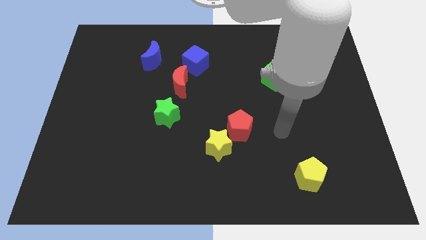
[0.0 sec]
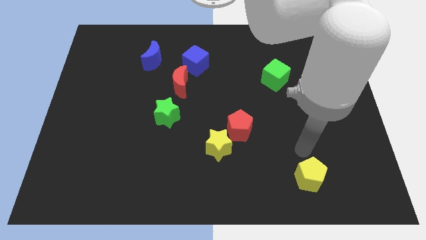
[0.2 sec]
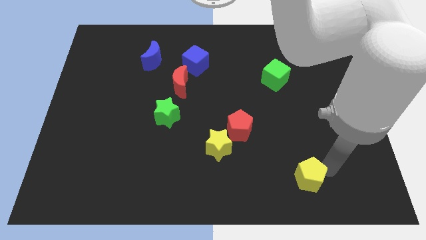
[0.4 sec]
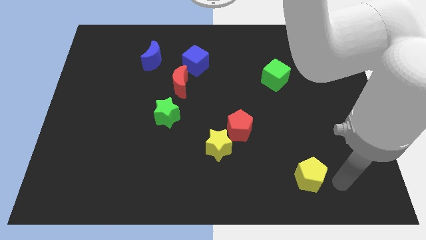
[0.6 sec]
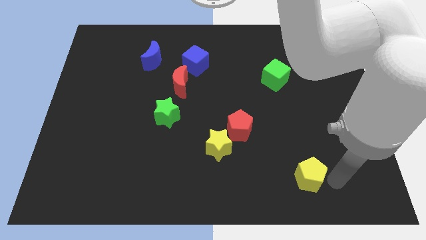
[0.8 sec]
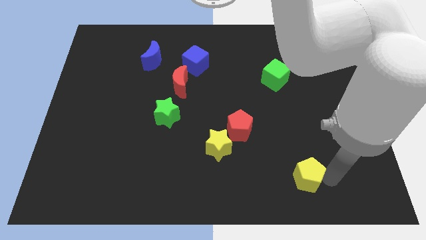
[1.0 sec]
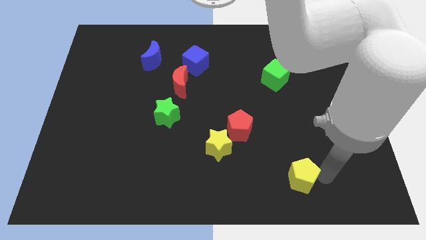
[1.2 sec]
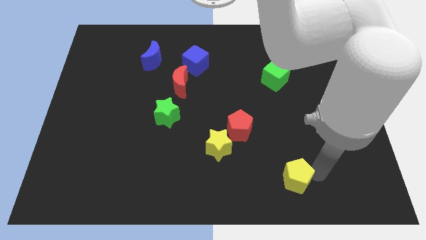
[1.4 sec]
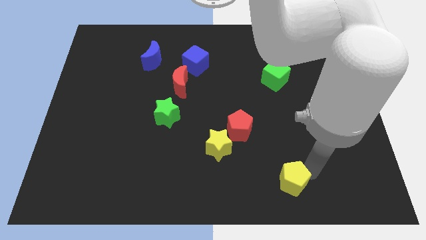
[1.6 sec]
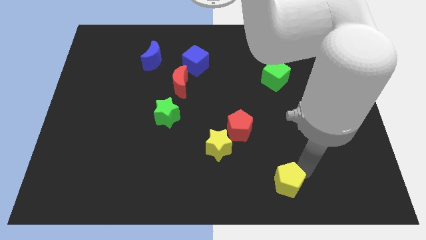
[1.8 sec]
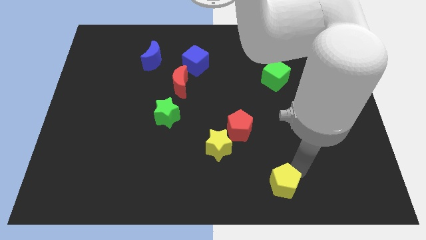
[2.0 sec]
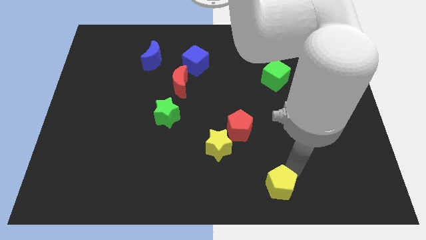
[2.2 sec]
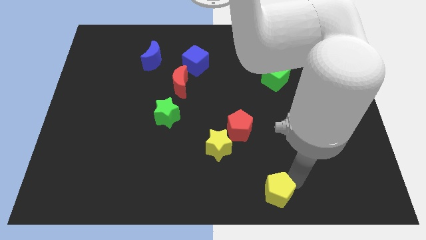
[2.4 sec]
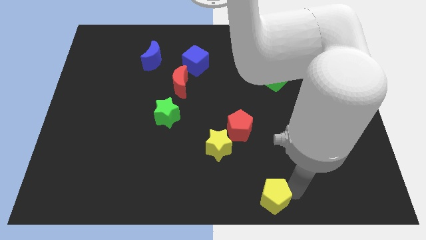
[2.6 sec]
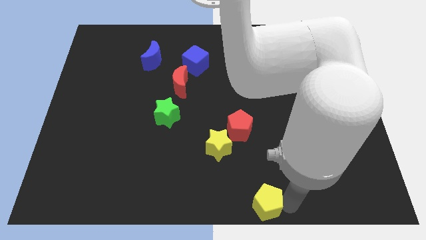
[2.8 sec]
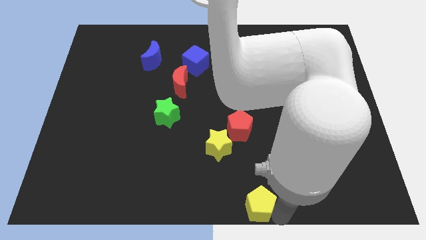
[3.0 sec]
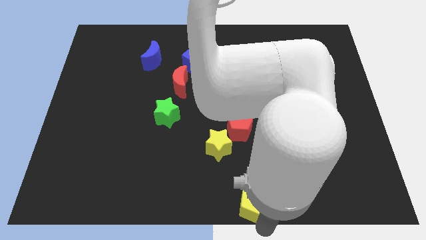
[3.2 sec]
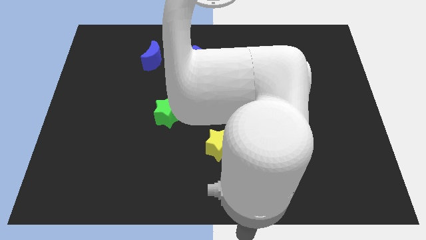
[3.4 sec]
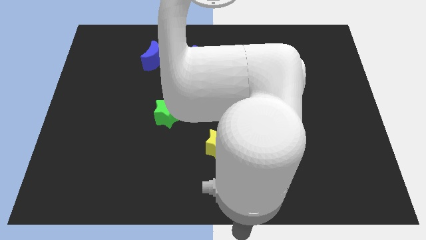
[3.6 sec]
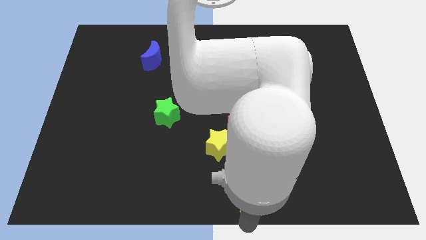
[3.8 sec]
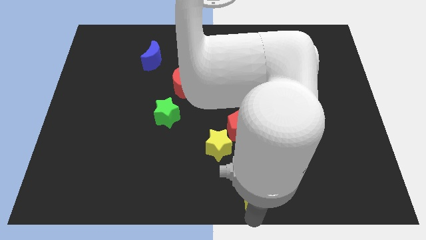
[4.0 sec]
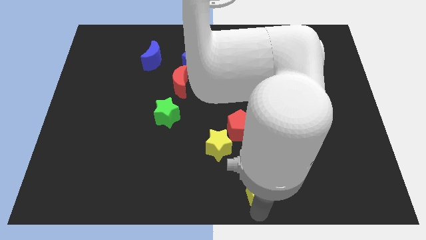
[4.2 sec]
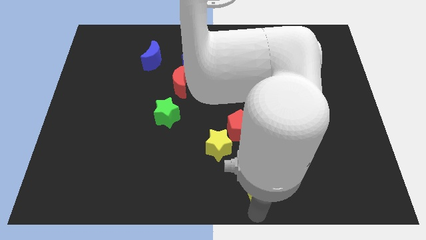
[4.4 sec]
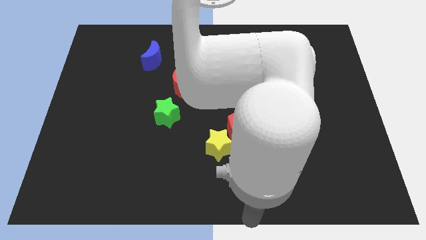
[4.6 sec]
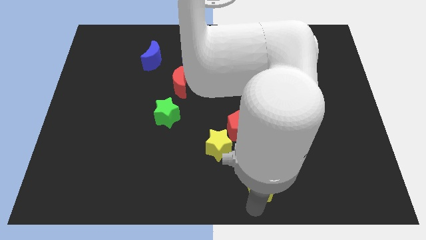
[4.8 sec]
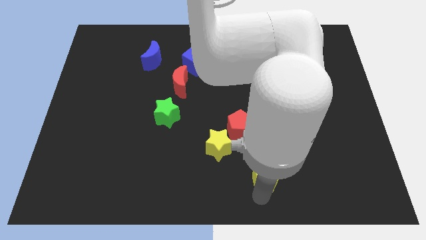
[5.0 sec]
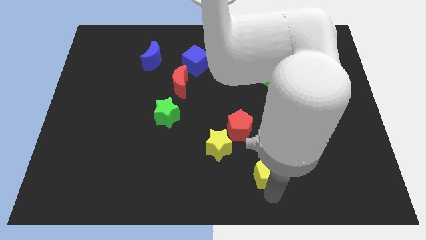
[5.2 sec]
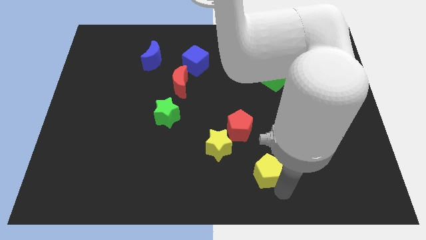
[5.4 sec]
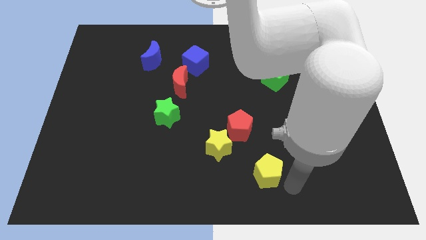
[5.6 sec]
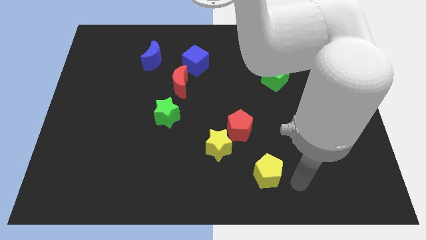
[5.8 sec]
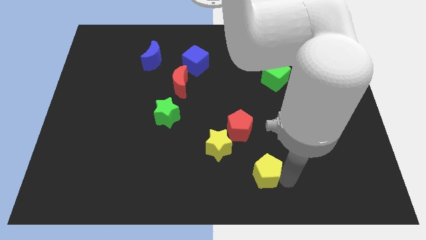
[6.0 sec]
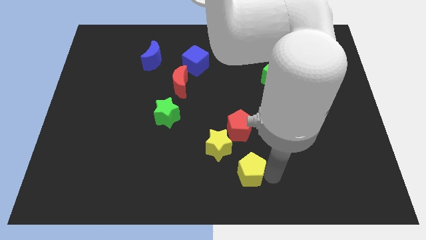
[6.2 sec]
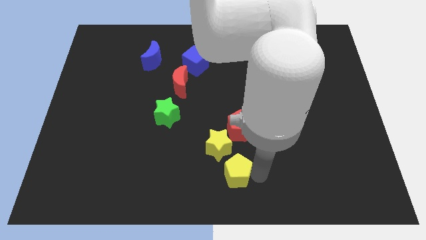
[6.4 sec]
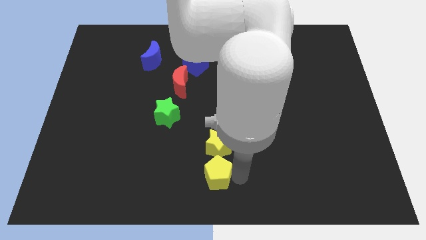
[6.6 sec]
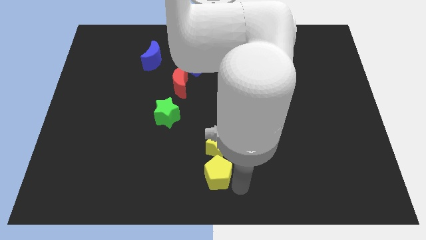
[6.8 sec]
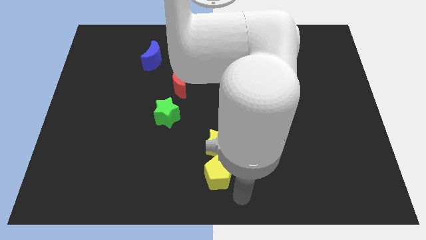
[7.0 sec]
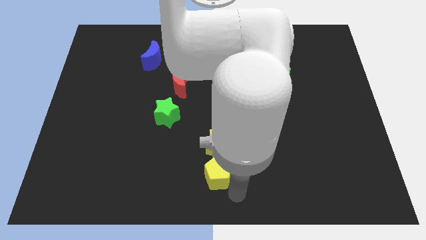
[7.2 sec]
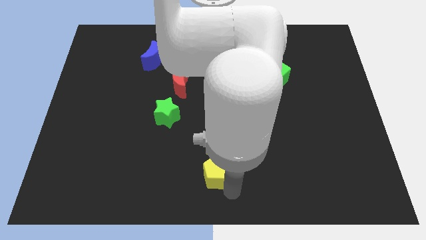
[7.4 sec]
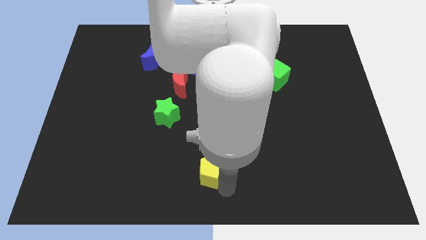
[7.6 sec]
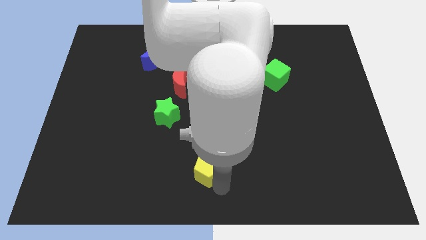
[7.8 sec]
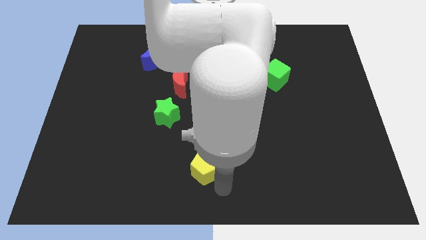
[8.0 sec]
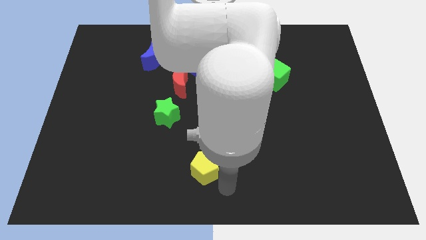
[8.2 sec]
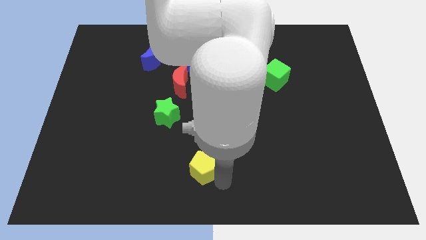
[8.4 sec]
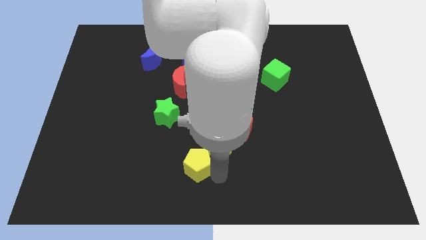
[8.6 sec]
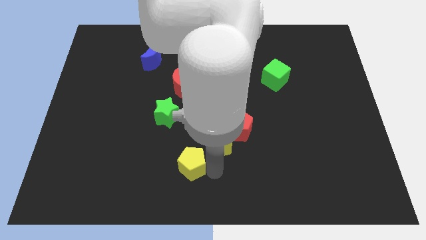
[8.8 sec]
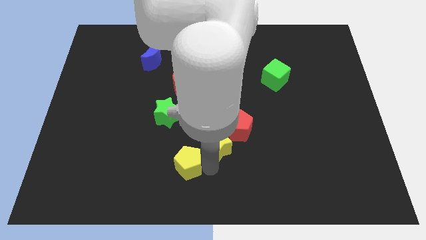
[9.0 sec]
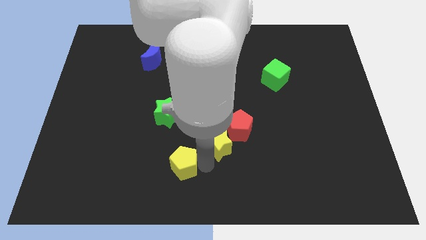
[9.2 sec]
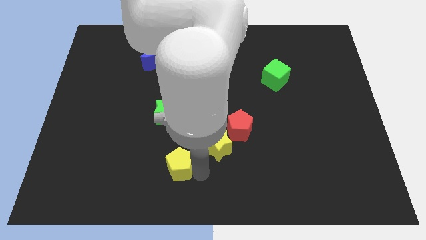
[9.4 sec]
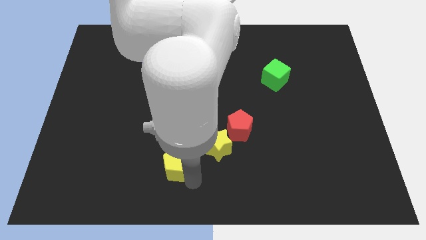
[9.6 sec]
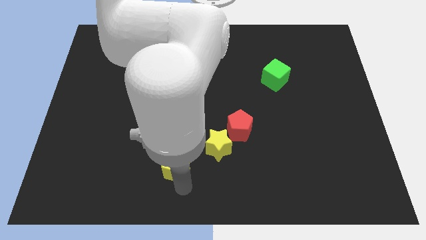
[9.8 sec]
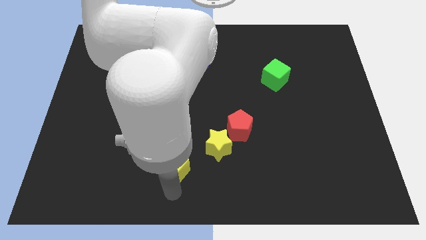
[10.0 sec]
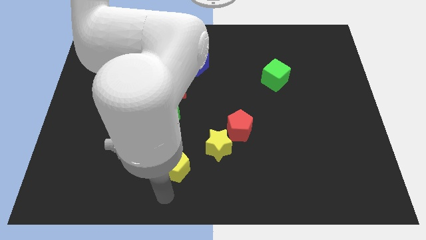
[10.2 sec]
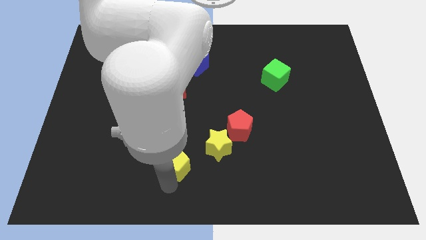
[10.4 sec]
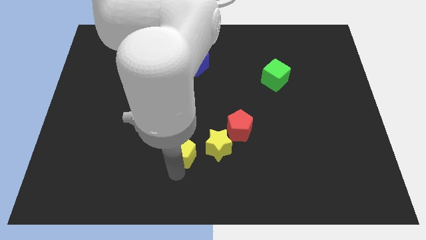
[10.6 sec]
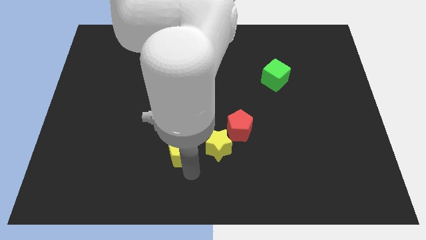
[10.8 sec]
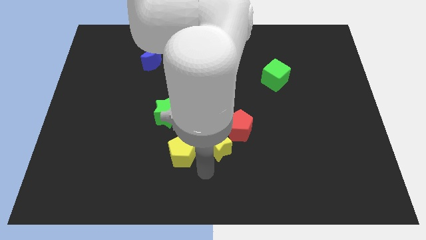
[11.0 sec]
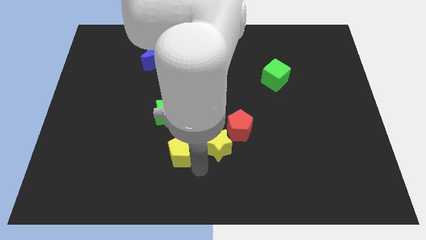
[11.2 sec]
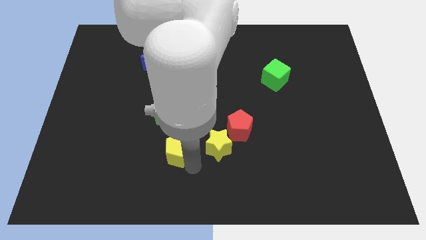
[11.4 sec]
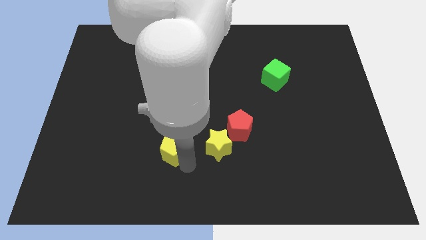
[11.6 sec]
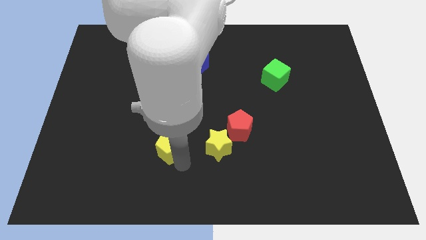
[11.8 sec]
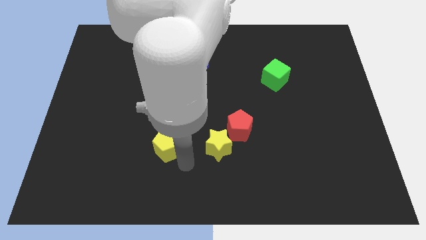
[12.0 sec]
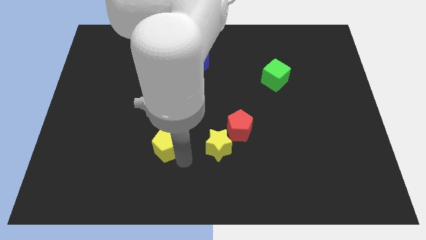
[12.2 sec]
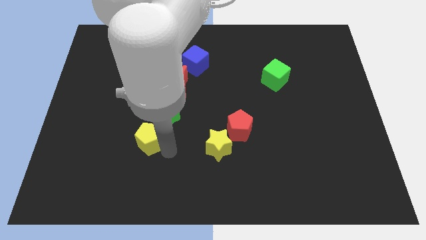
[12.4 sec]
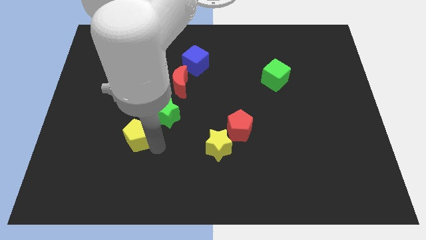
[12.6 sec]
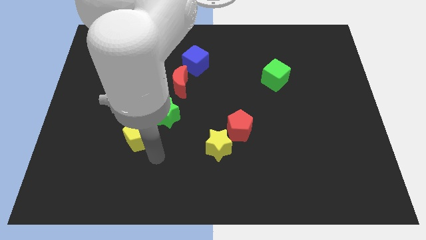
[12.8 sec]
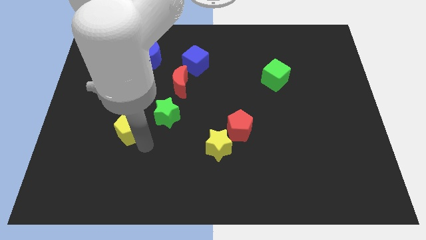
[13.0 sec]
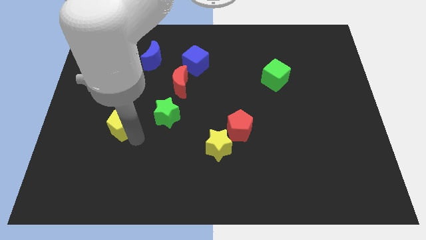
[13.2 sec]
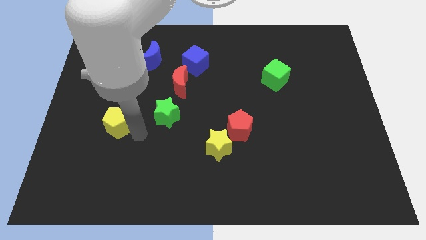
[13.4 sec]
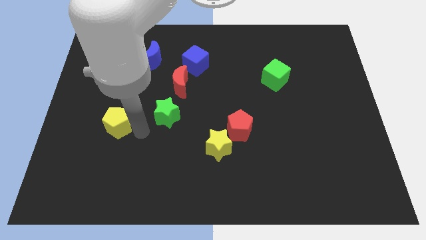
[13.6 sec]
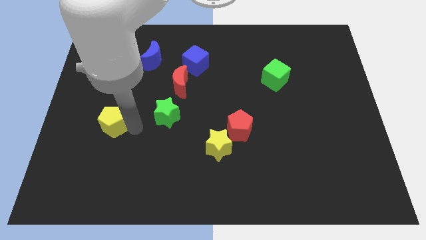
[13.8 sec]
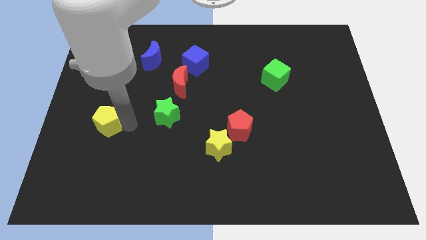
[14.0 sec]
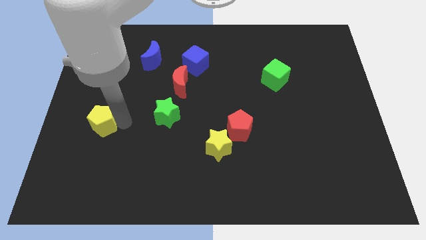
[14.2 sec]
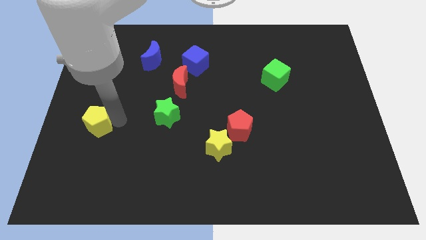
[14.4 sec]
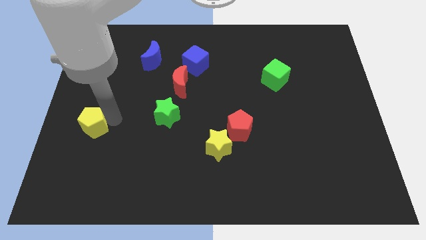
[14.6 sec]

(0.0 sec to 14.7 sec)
put the yellow pentagon to the left side
